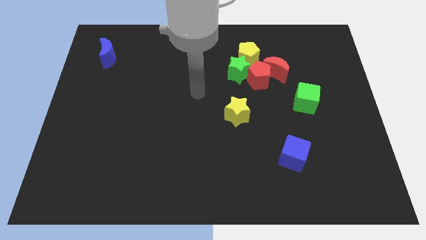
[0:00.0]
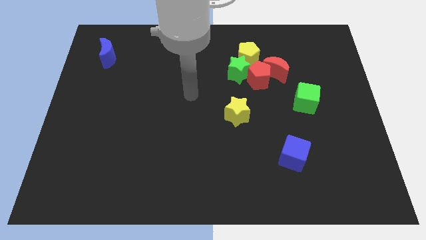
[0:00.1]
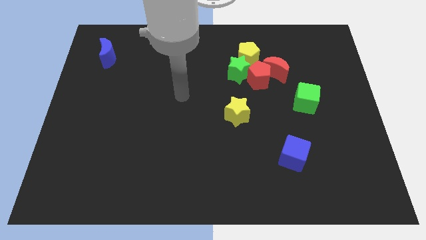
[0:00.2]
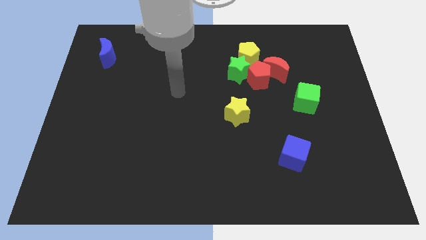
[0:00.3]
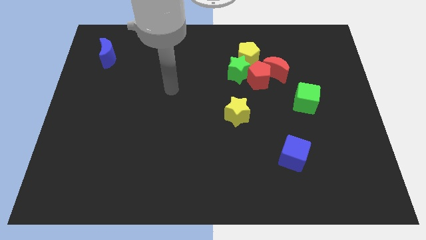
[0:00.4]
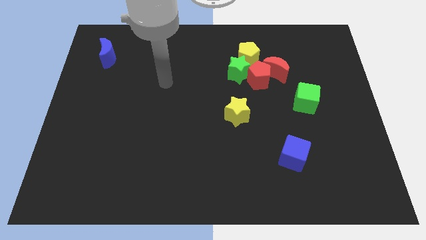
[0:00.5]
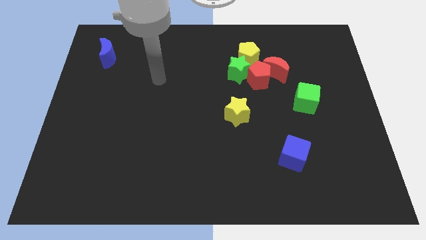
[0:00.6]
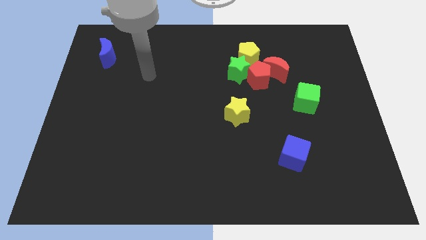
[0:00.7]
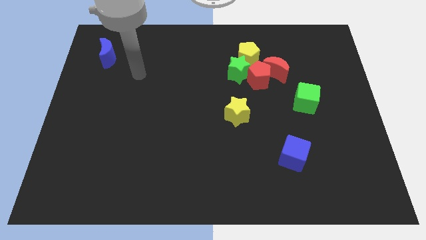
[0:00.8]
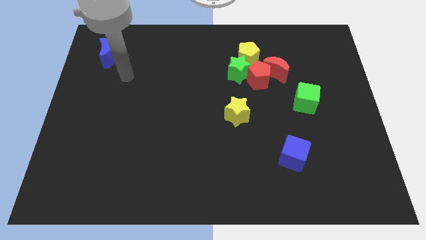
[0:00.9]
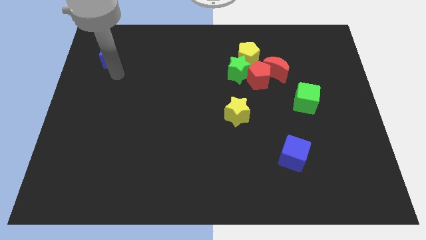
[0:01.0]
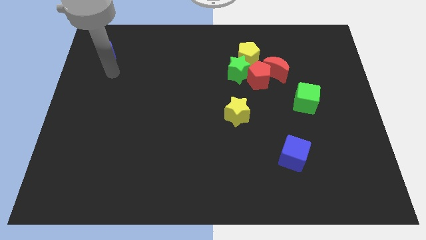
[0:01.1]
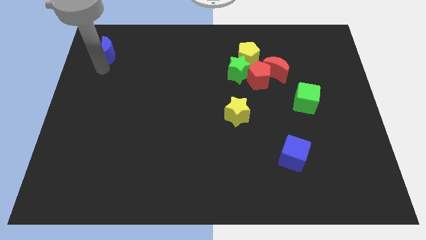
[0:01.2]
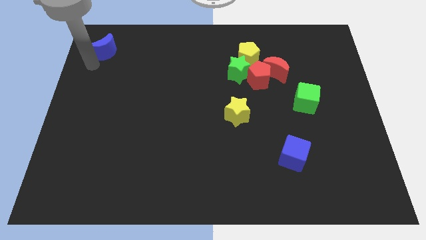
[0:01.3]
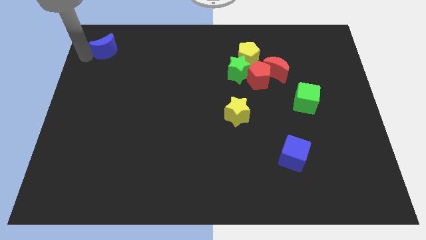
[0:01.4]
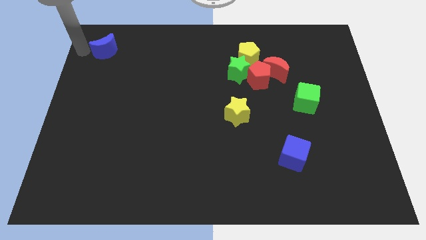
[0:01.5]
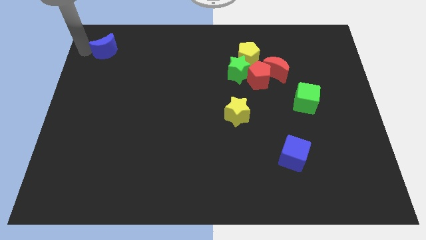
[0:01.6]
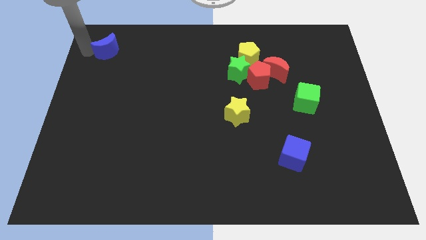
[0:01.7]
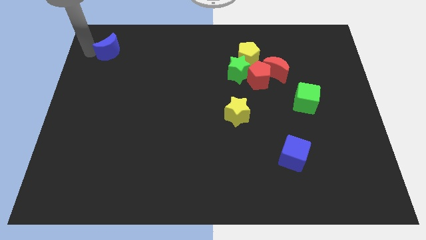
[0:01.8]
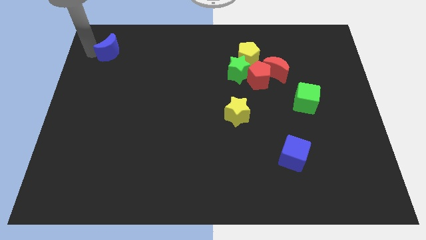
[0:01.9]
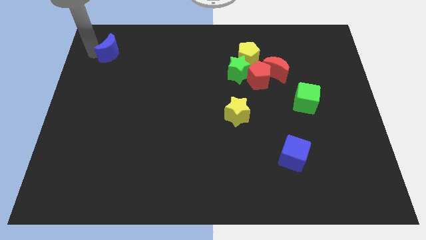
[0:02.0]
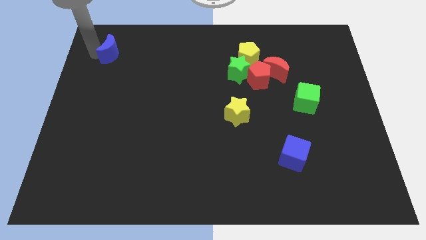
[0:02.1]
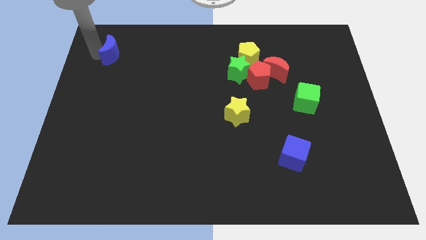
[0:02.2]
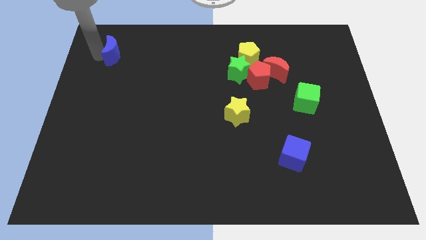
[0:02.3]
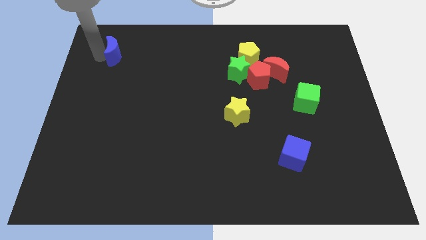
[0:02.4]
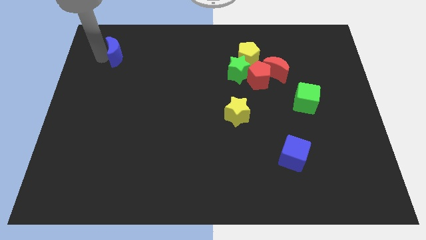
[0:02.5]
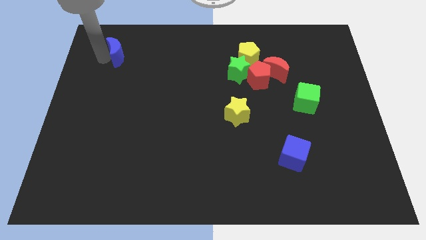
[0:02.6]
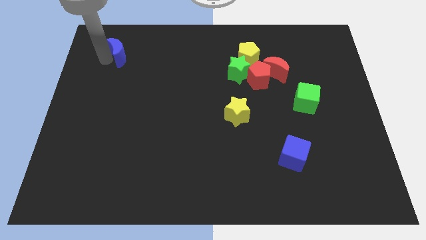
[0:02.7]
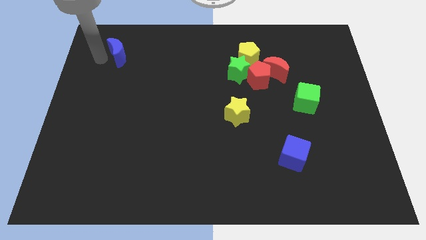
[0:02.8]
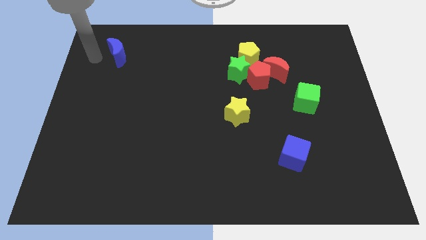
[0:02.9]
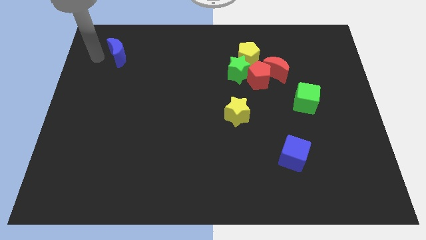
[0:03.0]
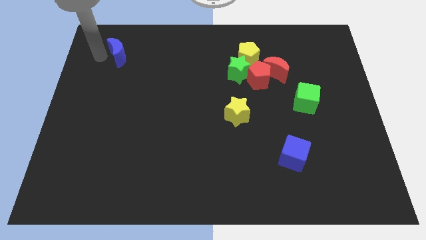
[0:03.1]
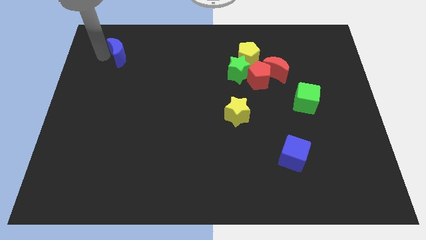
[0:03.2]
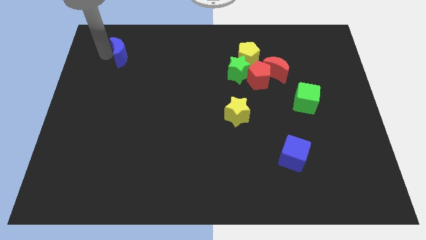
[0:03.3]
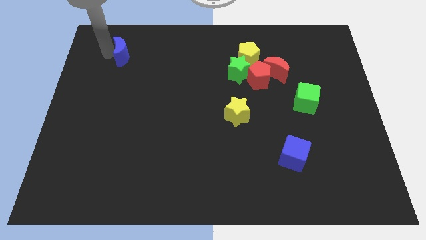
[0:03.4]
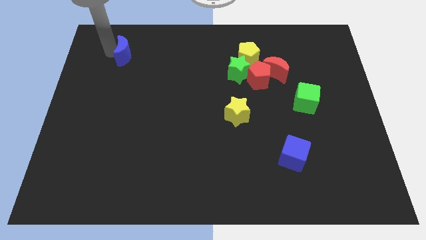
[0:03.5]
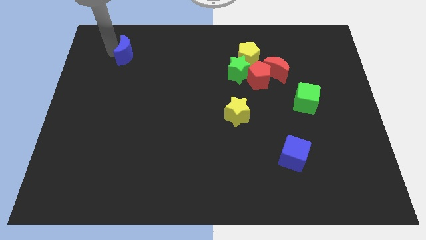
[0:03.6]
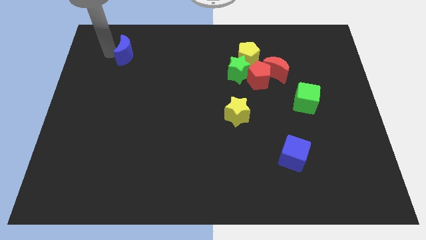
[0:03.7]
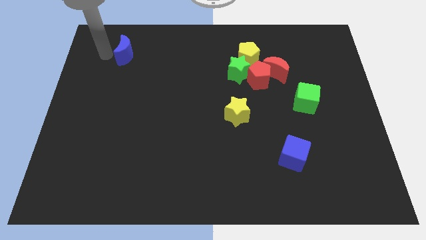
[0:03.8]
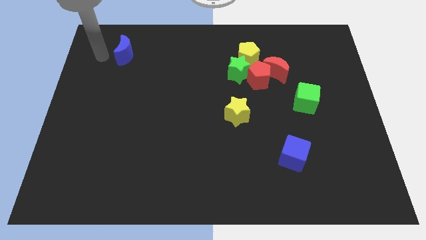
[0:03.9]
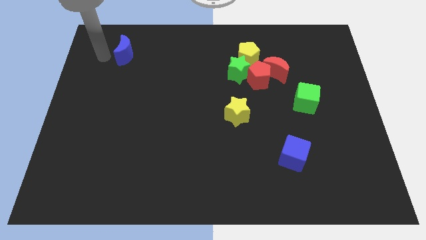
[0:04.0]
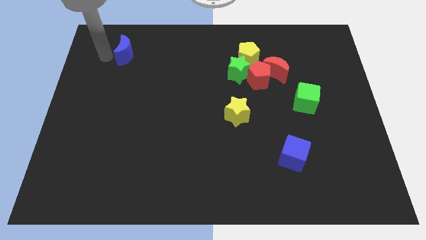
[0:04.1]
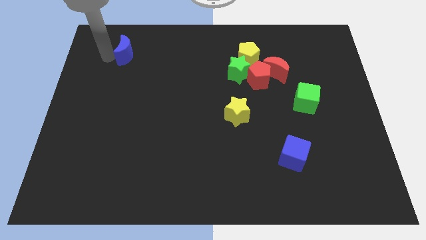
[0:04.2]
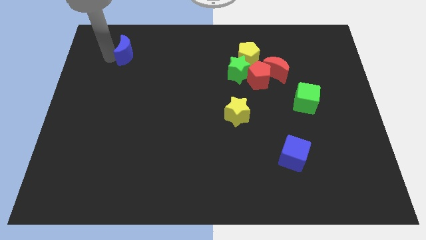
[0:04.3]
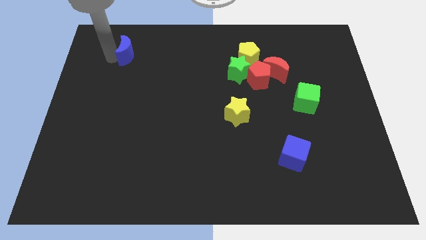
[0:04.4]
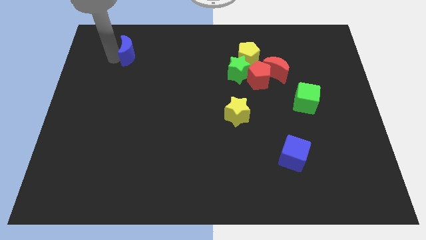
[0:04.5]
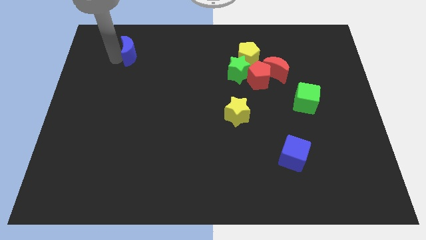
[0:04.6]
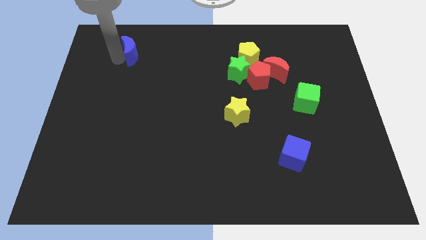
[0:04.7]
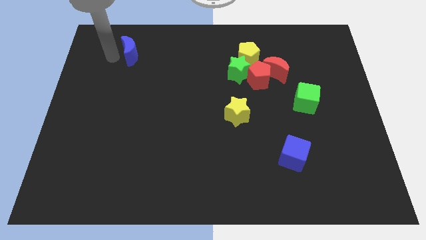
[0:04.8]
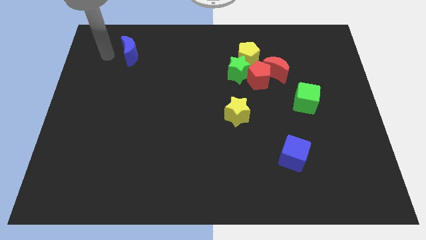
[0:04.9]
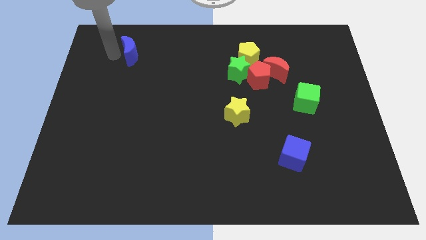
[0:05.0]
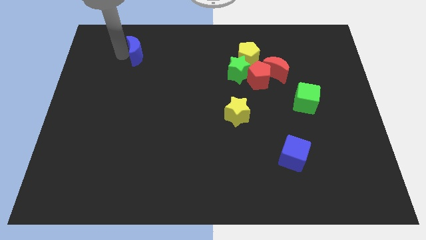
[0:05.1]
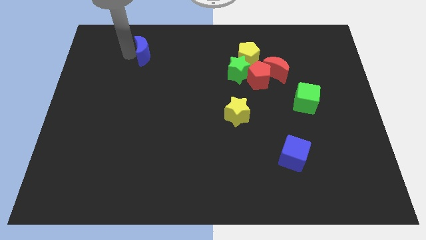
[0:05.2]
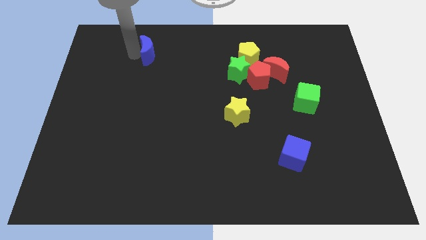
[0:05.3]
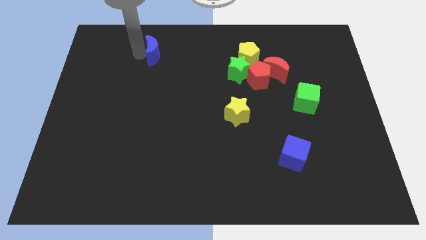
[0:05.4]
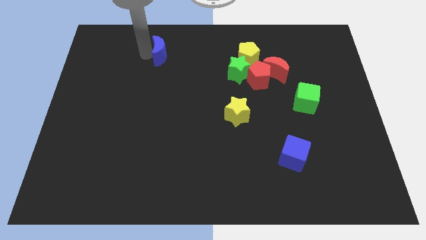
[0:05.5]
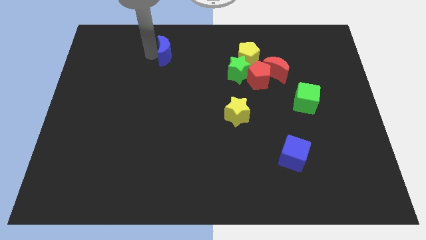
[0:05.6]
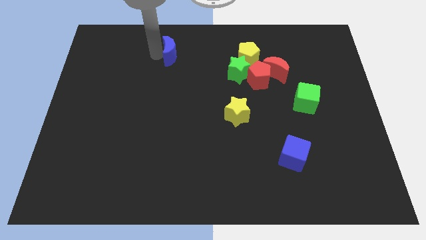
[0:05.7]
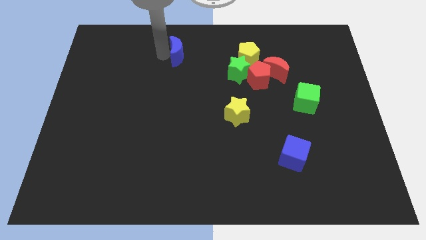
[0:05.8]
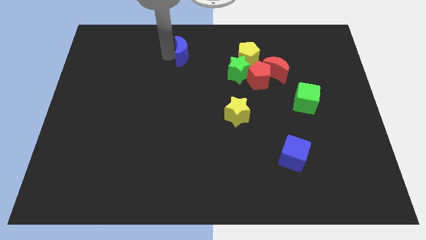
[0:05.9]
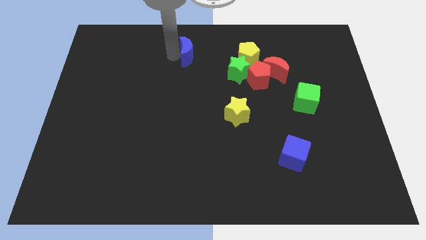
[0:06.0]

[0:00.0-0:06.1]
push the blue moon right

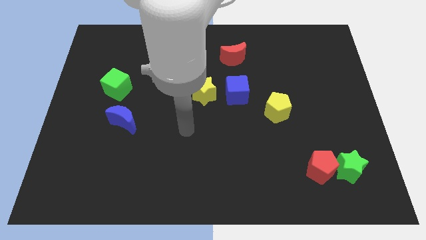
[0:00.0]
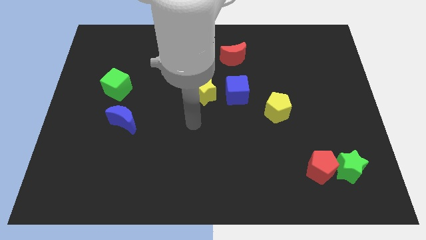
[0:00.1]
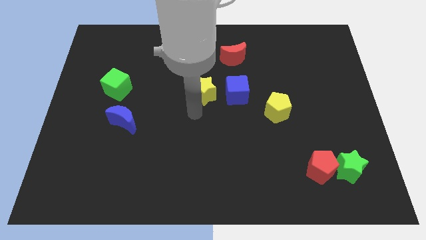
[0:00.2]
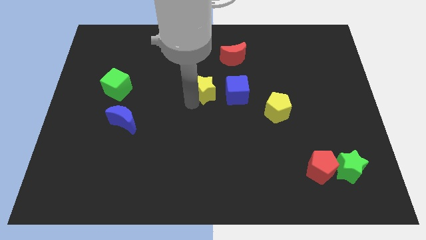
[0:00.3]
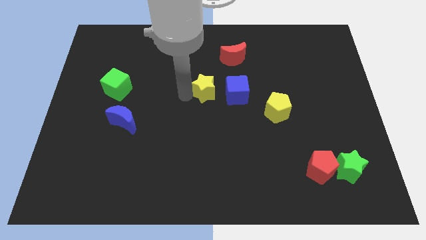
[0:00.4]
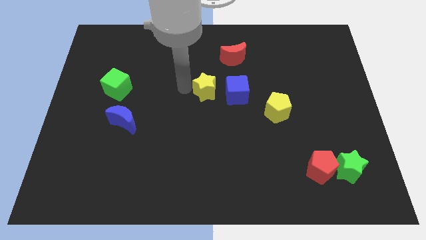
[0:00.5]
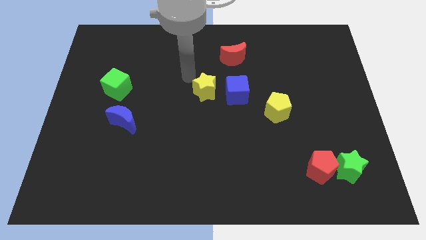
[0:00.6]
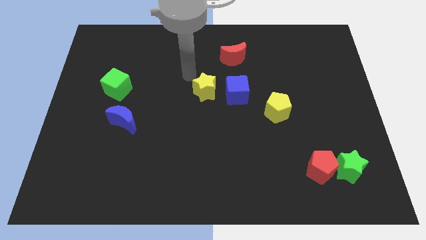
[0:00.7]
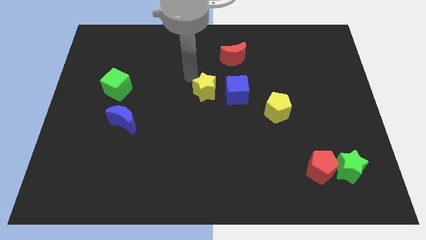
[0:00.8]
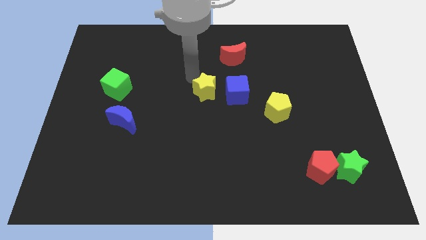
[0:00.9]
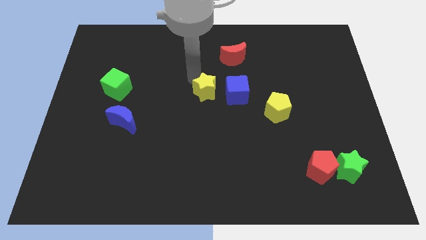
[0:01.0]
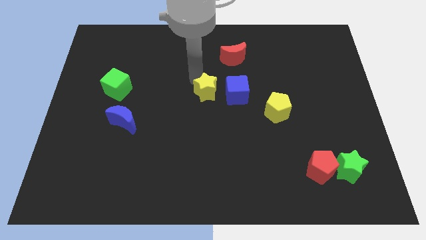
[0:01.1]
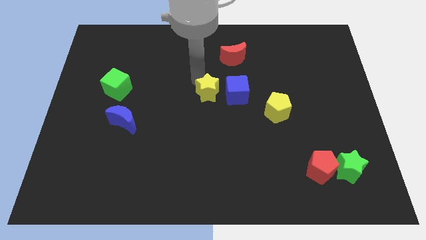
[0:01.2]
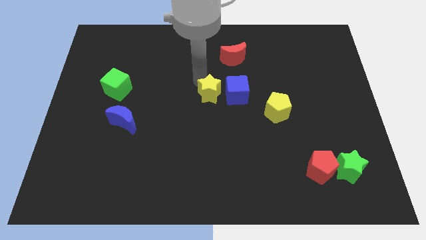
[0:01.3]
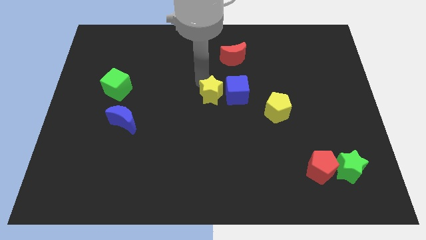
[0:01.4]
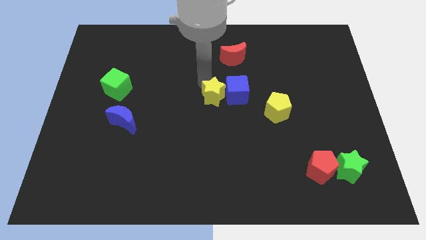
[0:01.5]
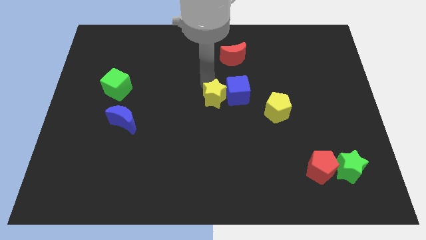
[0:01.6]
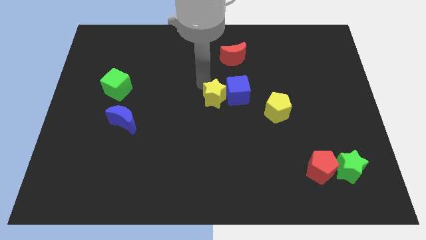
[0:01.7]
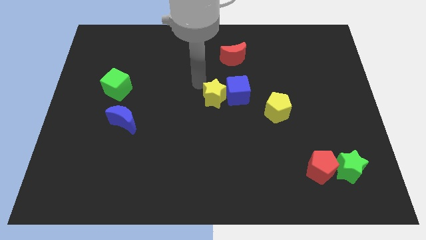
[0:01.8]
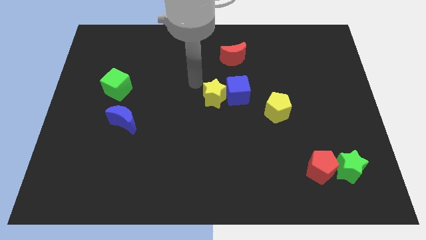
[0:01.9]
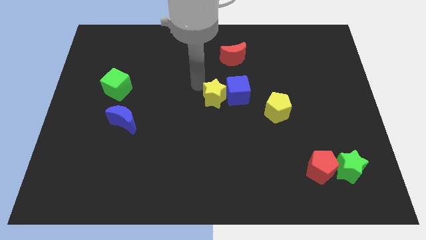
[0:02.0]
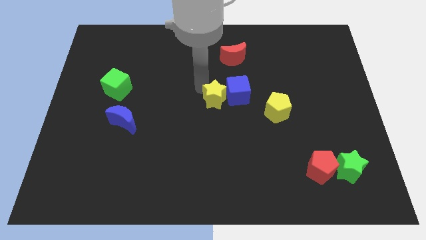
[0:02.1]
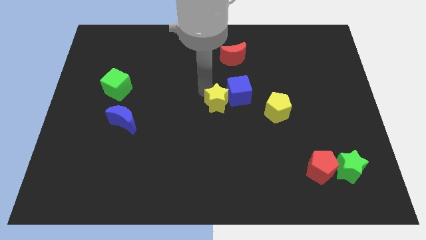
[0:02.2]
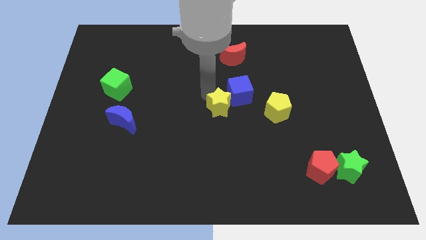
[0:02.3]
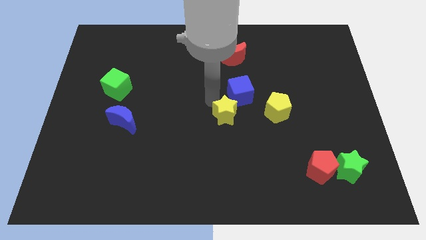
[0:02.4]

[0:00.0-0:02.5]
slide the yellow star slightly down and right diagonally
